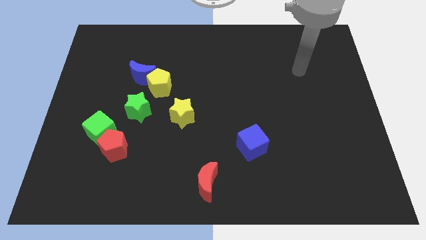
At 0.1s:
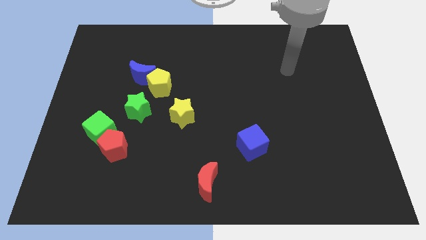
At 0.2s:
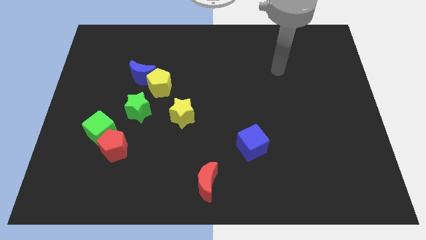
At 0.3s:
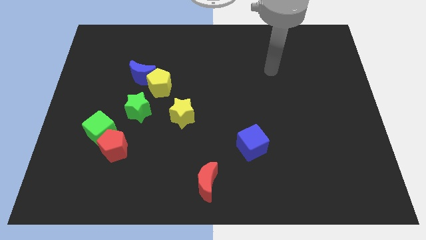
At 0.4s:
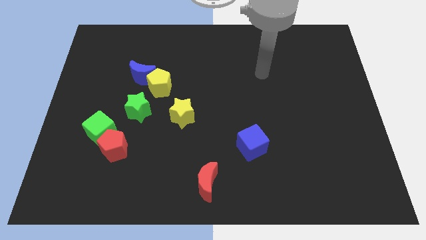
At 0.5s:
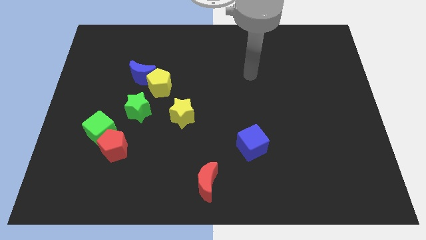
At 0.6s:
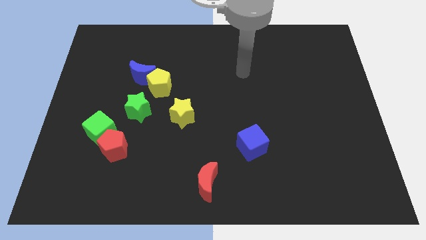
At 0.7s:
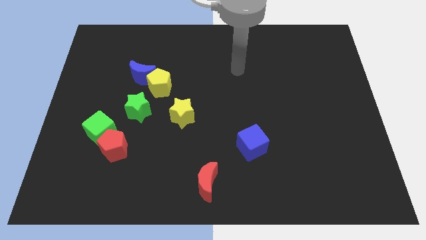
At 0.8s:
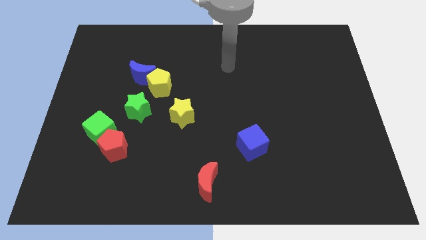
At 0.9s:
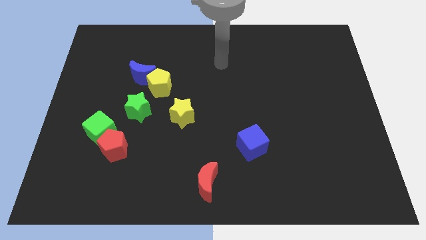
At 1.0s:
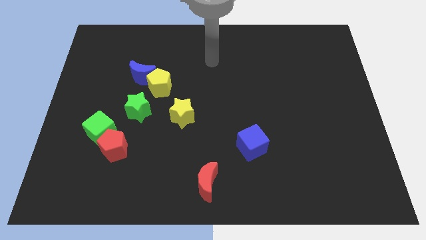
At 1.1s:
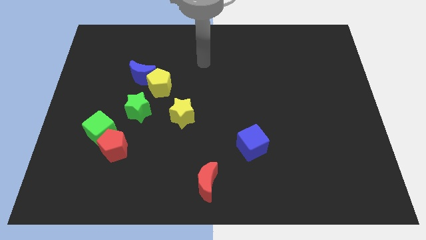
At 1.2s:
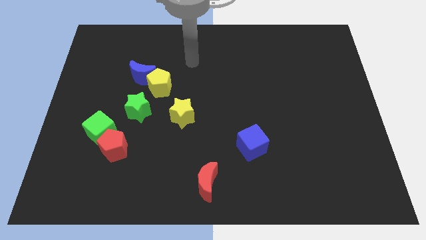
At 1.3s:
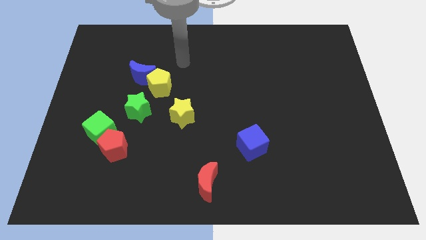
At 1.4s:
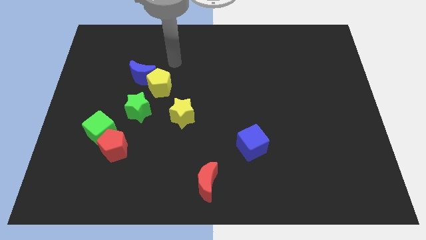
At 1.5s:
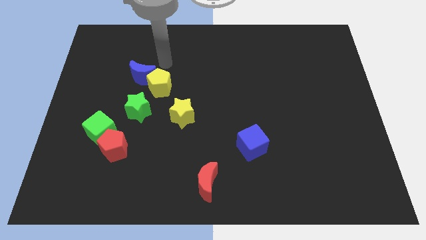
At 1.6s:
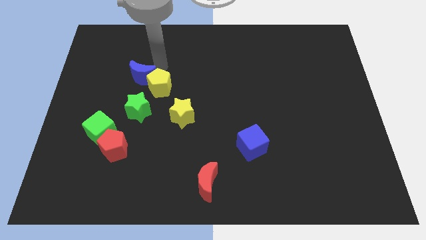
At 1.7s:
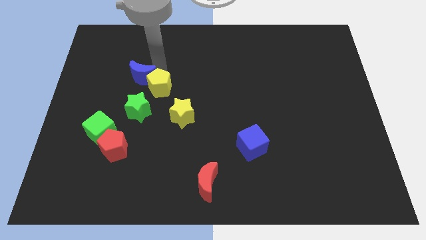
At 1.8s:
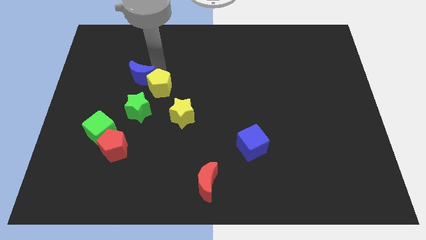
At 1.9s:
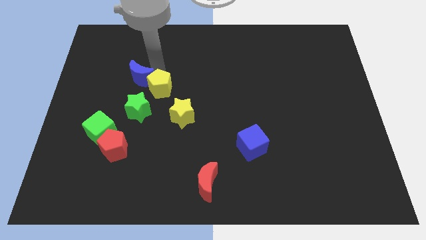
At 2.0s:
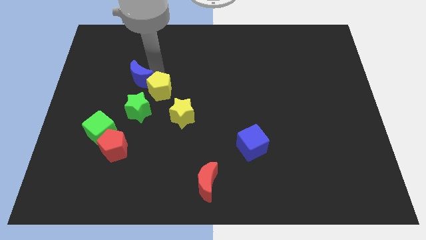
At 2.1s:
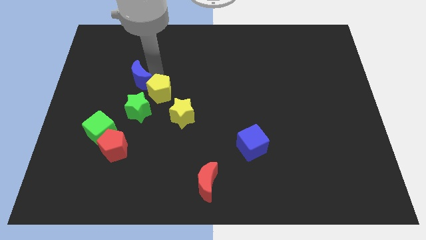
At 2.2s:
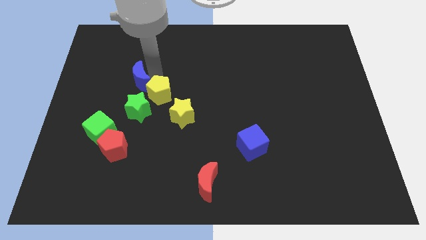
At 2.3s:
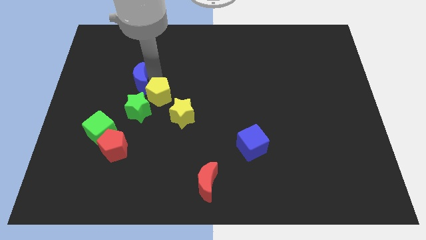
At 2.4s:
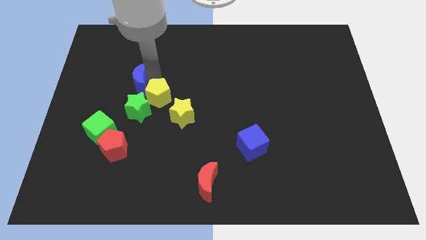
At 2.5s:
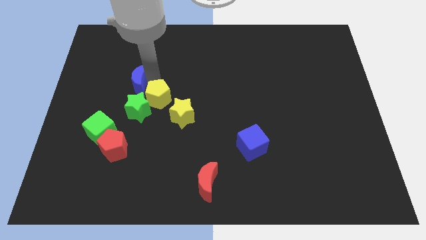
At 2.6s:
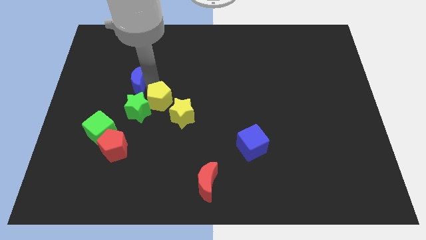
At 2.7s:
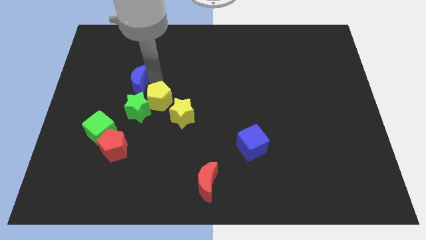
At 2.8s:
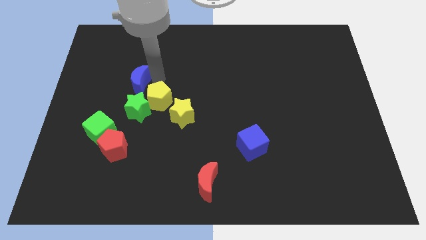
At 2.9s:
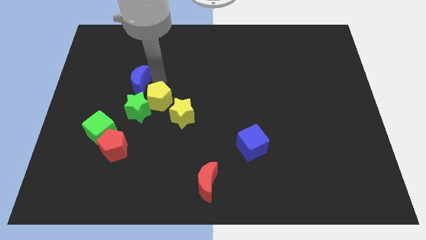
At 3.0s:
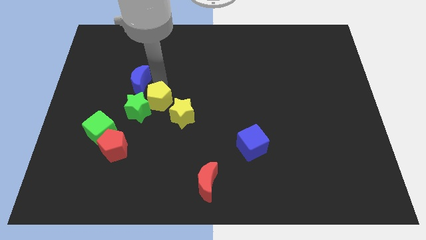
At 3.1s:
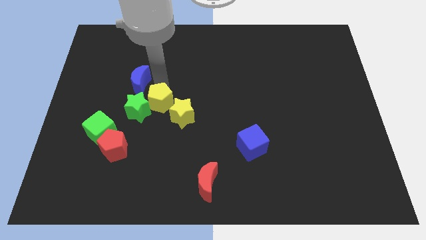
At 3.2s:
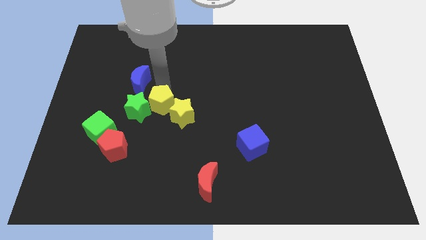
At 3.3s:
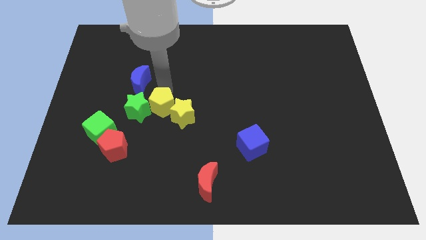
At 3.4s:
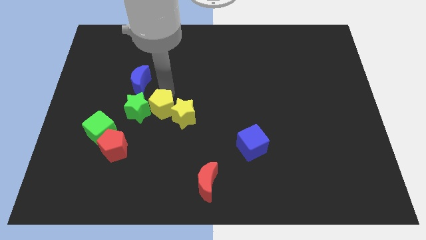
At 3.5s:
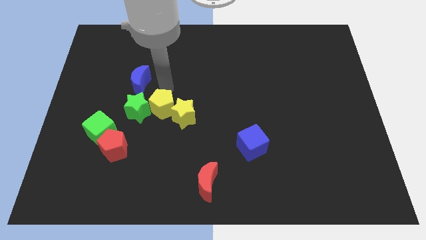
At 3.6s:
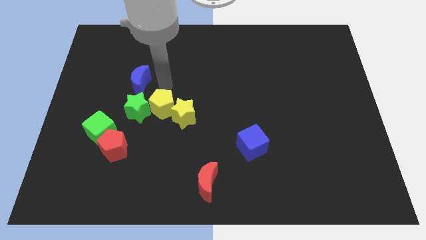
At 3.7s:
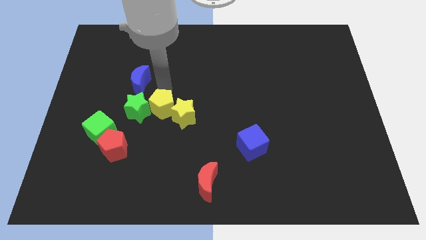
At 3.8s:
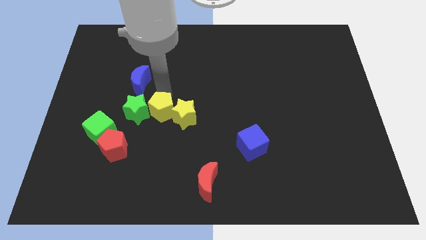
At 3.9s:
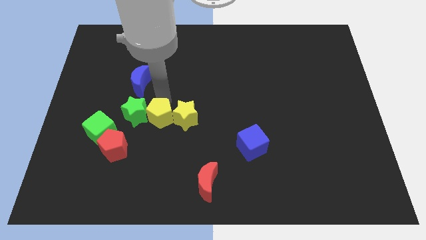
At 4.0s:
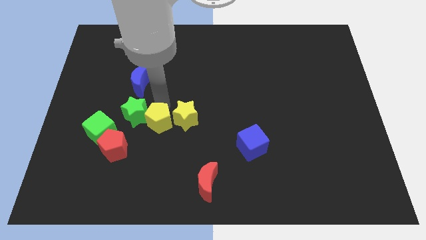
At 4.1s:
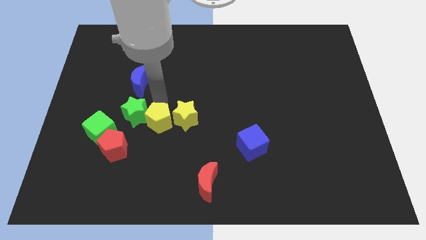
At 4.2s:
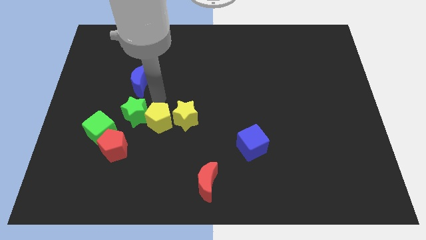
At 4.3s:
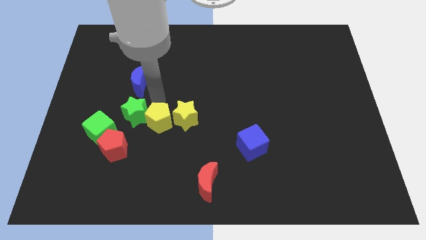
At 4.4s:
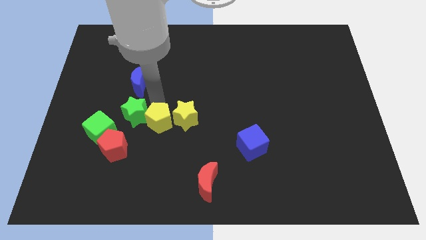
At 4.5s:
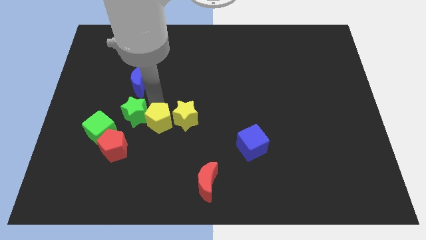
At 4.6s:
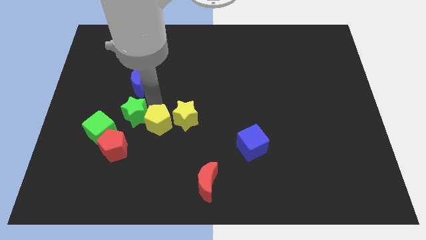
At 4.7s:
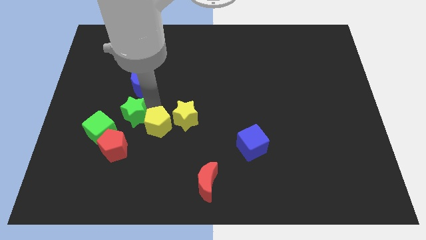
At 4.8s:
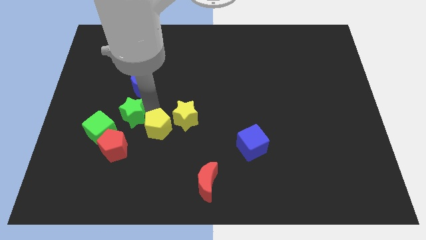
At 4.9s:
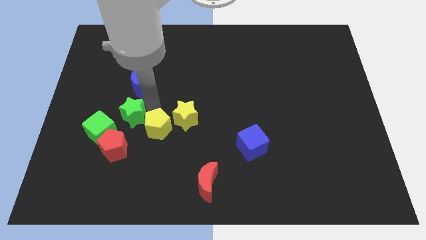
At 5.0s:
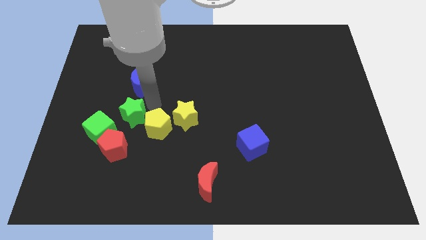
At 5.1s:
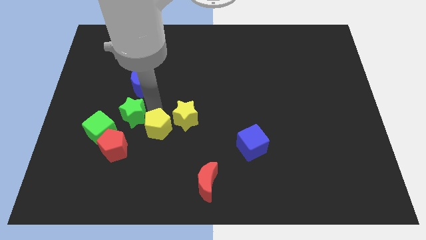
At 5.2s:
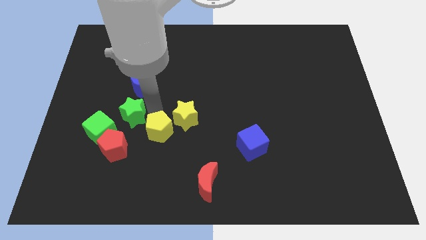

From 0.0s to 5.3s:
move the yellow pentagon to the right side of the red pentagon

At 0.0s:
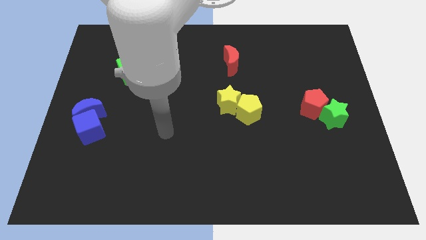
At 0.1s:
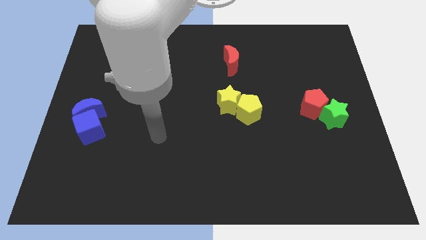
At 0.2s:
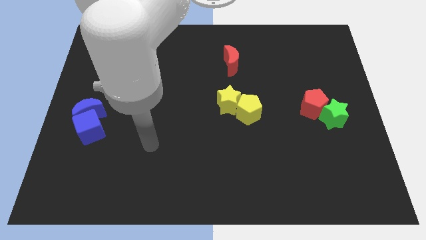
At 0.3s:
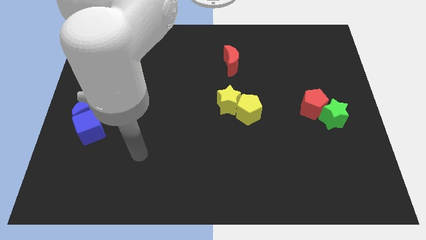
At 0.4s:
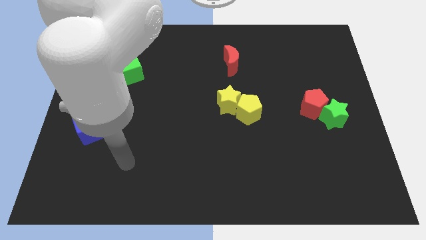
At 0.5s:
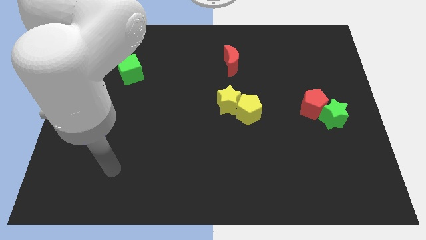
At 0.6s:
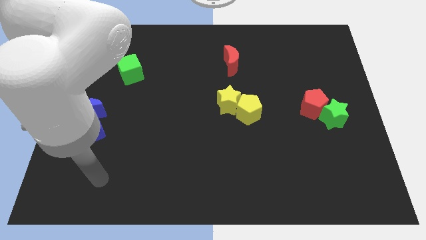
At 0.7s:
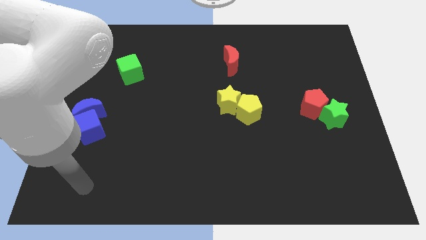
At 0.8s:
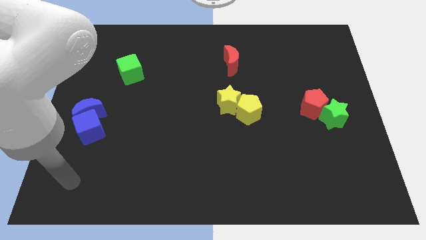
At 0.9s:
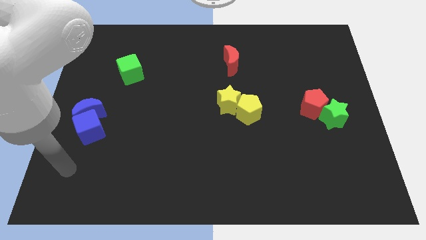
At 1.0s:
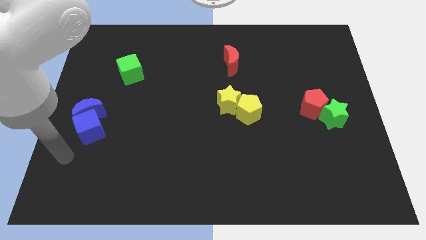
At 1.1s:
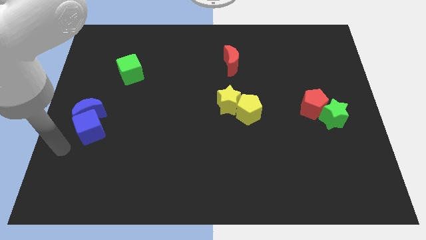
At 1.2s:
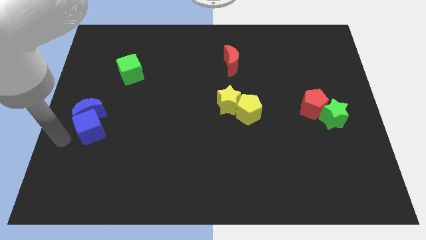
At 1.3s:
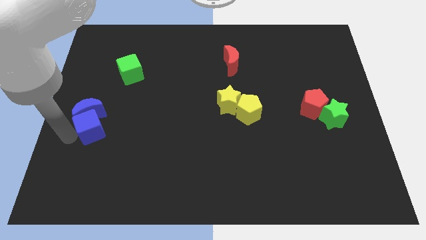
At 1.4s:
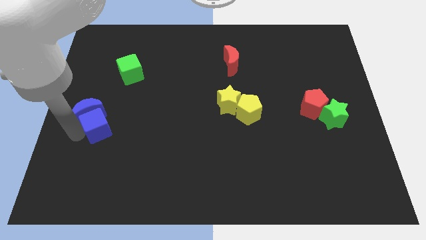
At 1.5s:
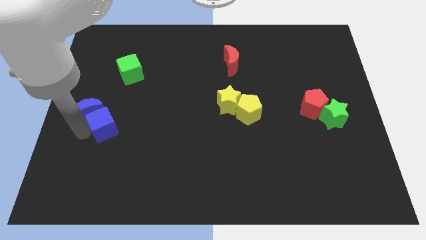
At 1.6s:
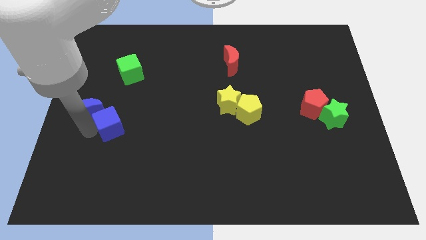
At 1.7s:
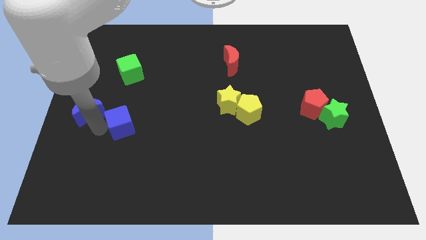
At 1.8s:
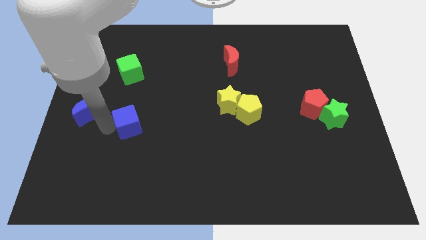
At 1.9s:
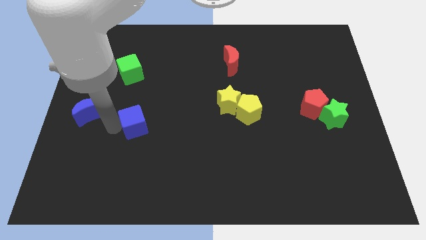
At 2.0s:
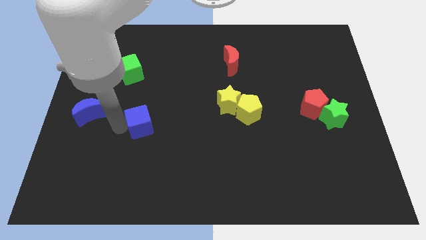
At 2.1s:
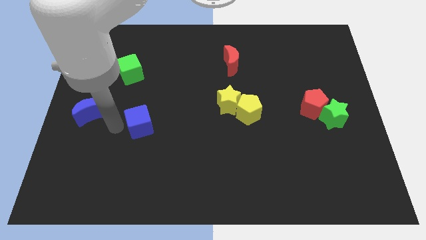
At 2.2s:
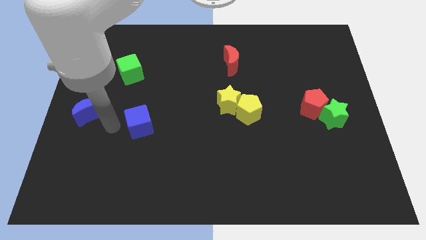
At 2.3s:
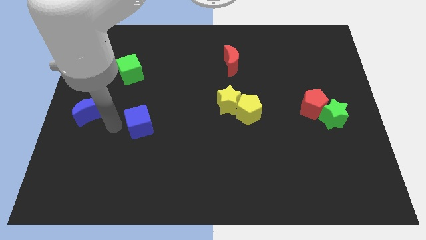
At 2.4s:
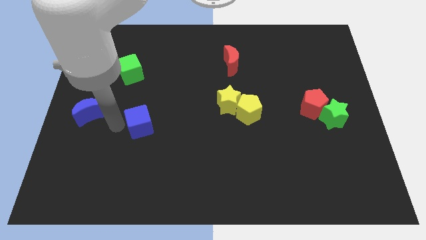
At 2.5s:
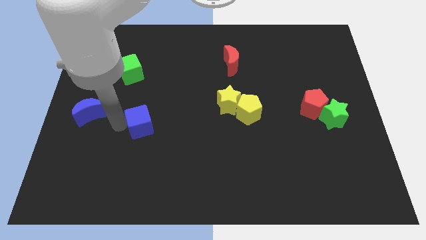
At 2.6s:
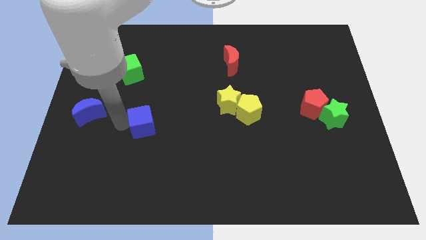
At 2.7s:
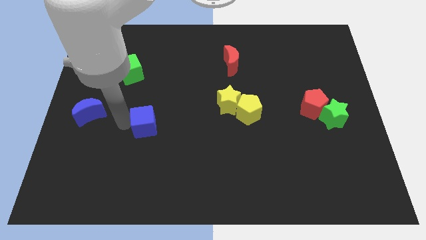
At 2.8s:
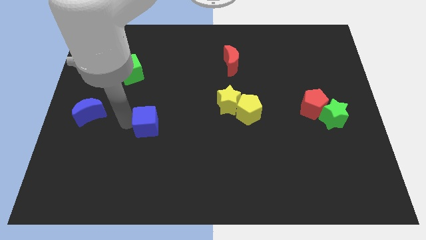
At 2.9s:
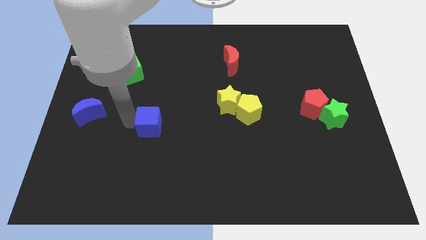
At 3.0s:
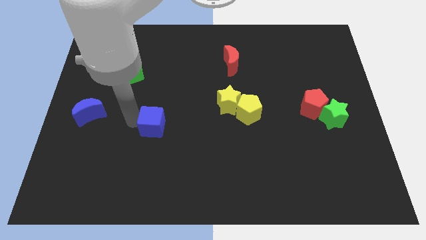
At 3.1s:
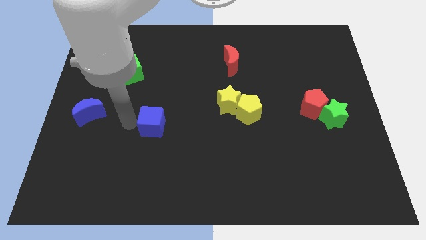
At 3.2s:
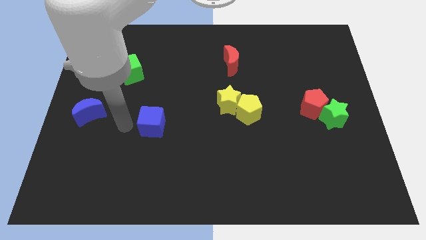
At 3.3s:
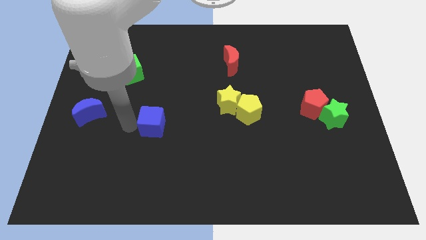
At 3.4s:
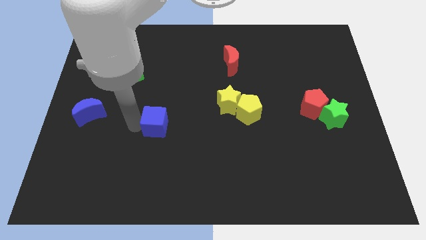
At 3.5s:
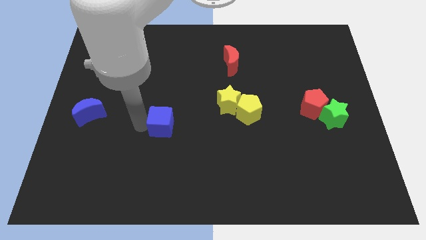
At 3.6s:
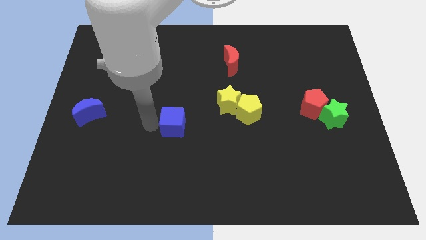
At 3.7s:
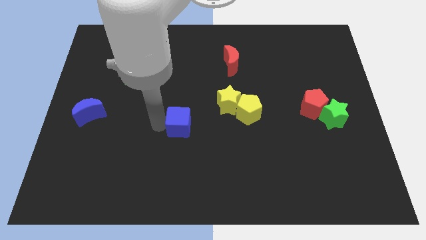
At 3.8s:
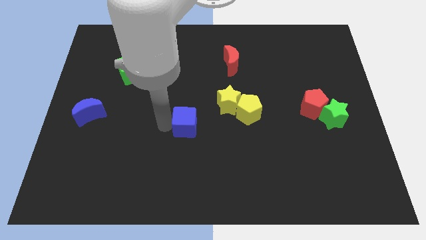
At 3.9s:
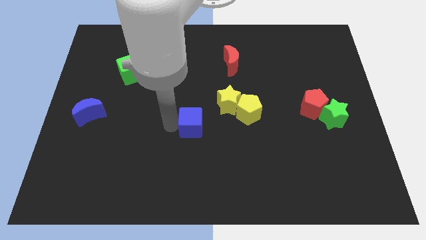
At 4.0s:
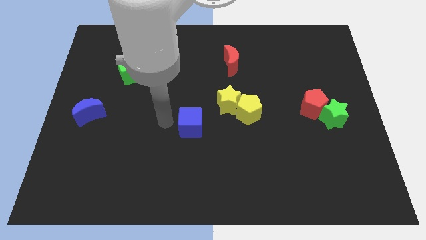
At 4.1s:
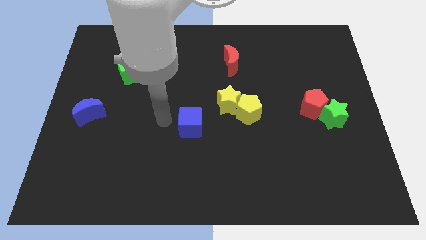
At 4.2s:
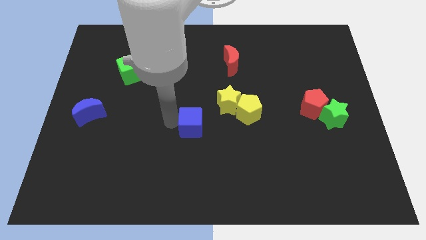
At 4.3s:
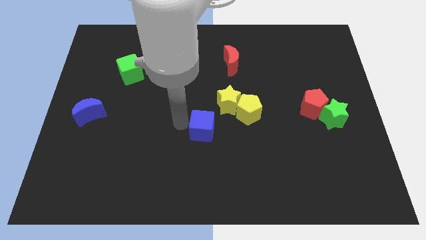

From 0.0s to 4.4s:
slide the blue cube diagonally down and to the left of the yellow pentagon
